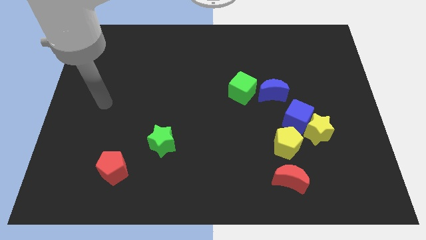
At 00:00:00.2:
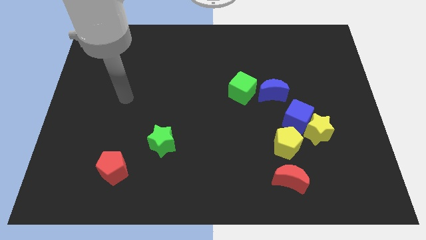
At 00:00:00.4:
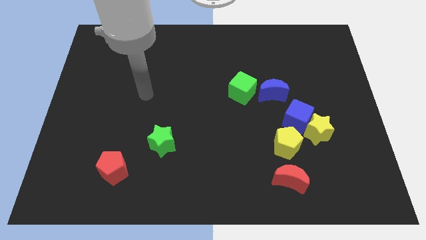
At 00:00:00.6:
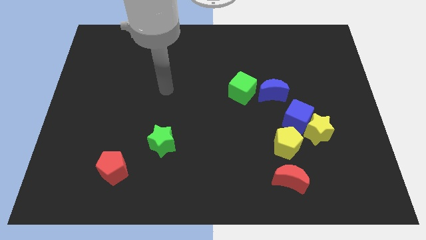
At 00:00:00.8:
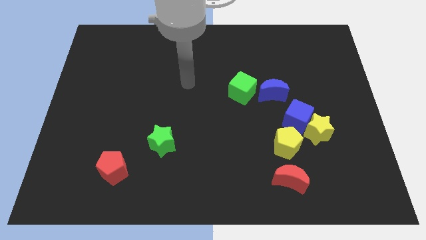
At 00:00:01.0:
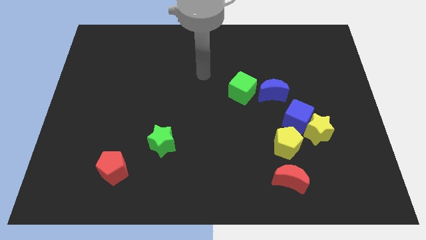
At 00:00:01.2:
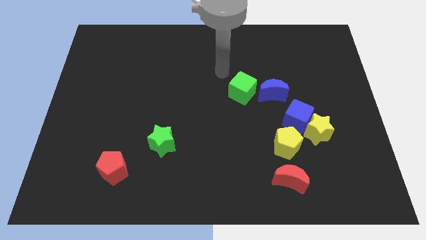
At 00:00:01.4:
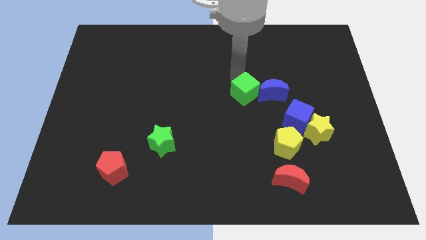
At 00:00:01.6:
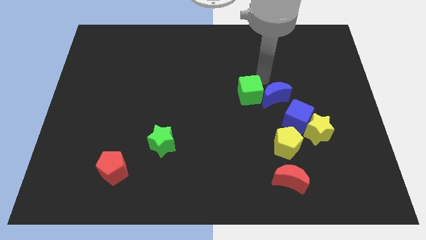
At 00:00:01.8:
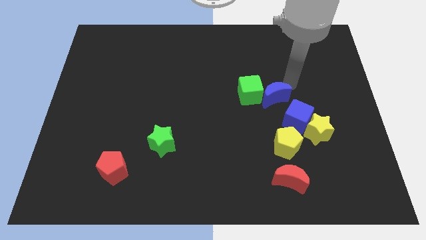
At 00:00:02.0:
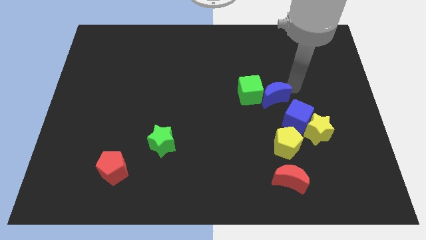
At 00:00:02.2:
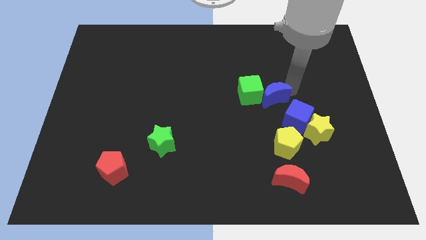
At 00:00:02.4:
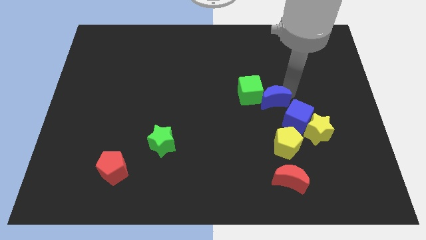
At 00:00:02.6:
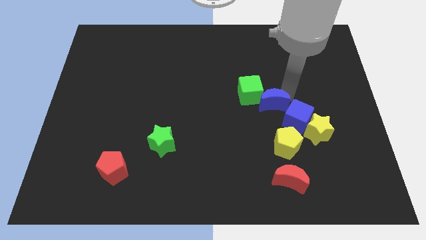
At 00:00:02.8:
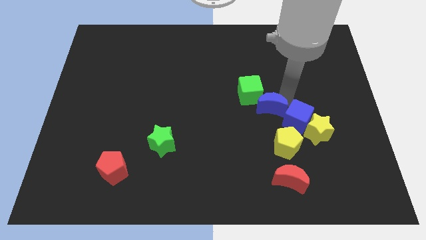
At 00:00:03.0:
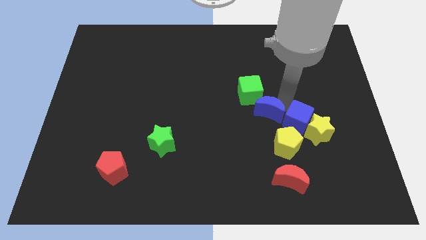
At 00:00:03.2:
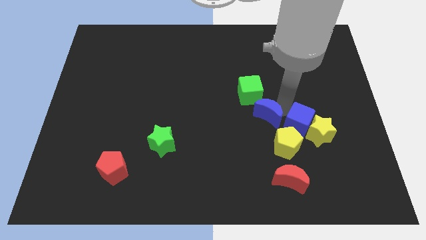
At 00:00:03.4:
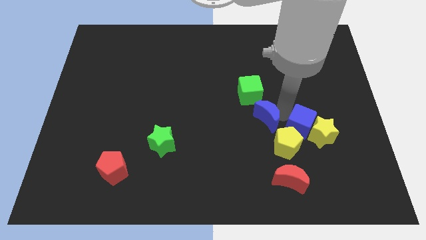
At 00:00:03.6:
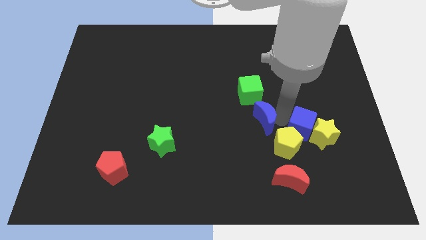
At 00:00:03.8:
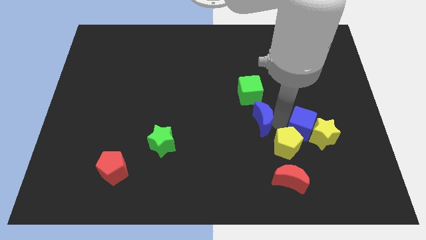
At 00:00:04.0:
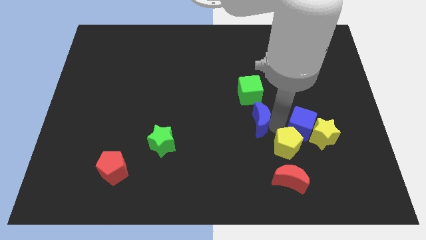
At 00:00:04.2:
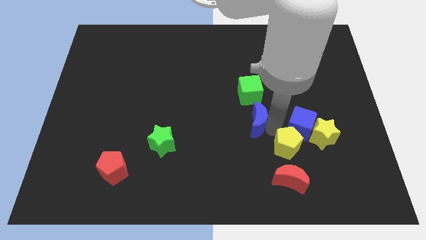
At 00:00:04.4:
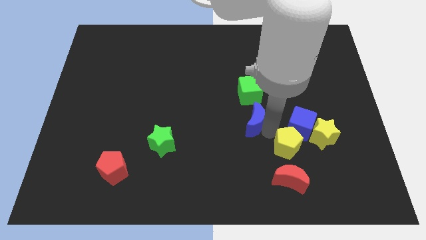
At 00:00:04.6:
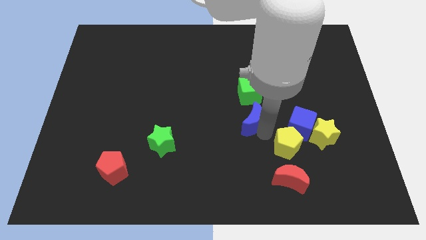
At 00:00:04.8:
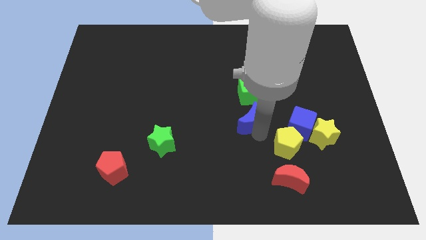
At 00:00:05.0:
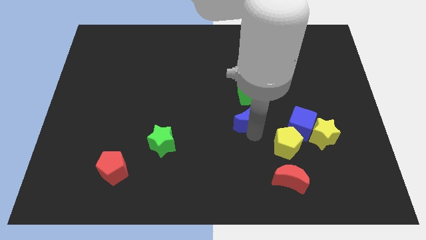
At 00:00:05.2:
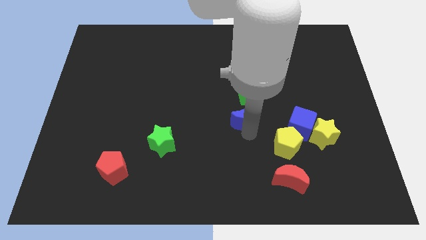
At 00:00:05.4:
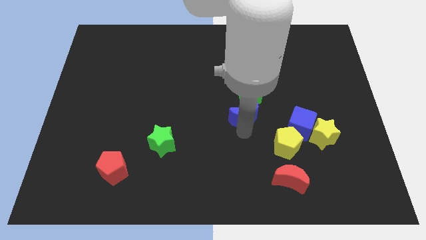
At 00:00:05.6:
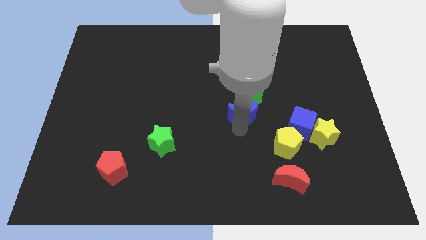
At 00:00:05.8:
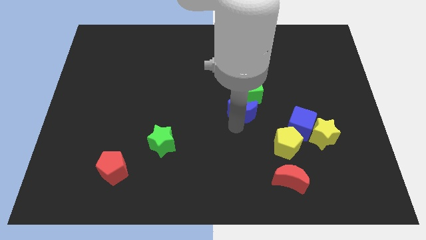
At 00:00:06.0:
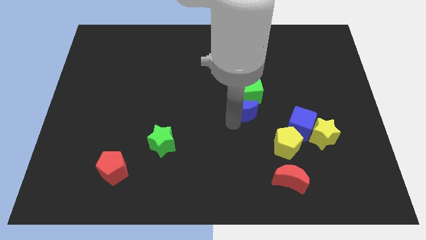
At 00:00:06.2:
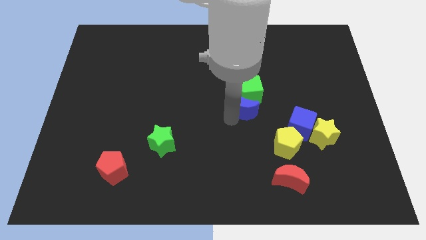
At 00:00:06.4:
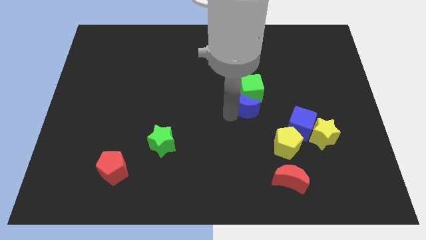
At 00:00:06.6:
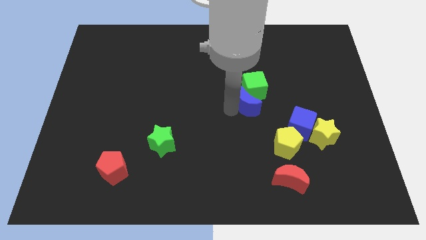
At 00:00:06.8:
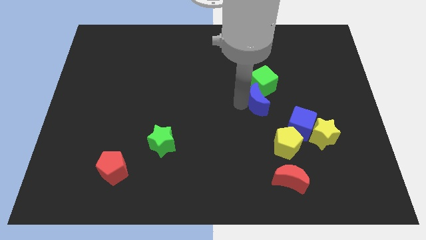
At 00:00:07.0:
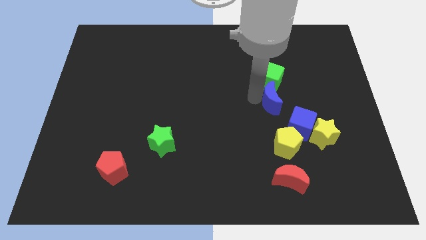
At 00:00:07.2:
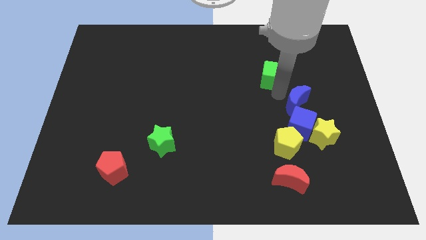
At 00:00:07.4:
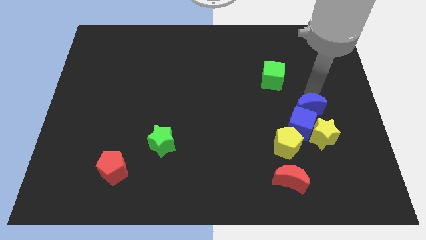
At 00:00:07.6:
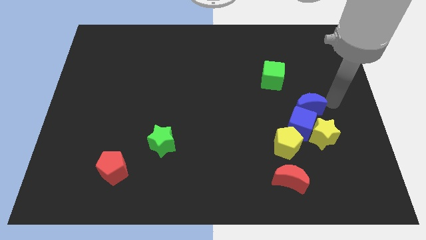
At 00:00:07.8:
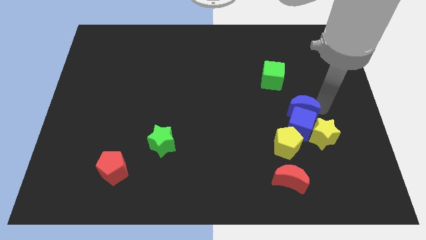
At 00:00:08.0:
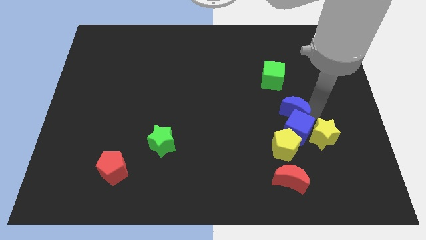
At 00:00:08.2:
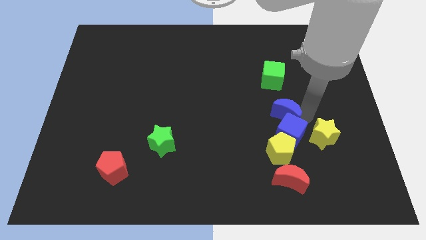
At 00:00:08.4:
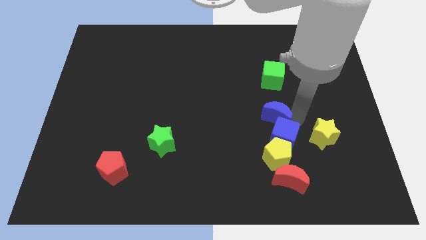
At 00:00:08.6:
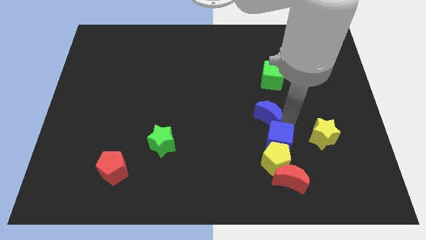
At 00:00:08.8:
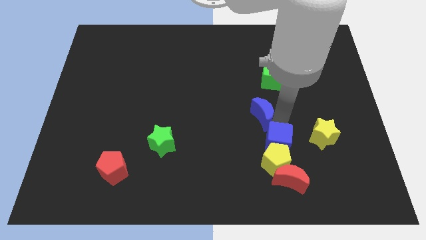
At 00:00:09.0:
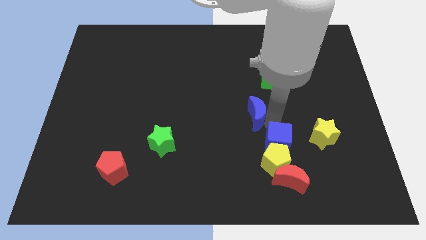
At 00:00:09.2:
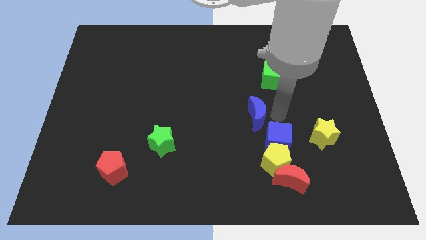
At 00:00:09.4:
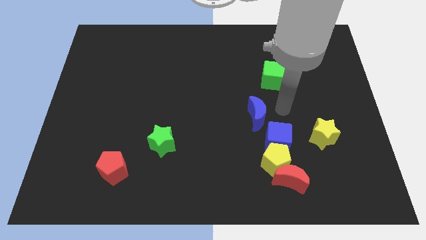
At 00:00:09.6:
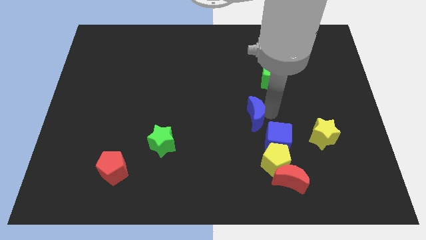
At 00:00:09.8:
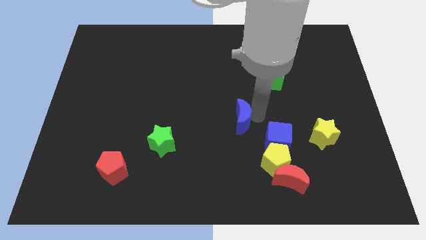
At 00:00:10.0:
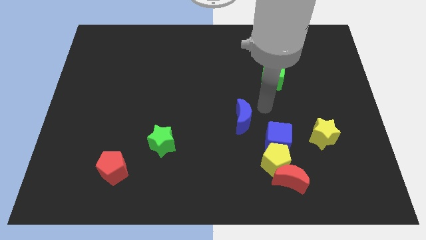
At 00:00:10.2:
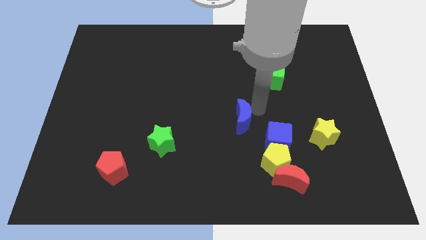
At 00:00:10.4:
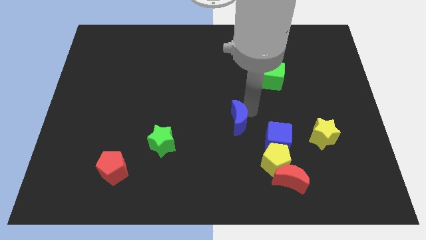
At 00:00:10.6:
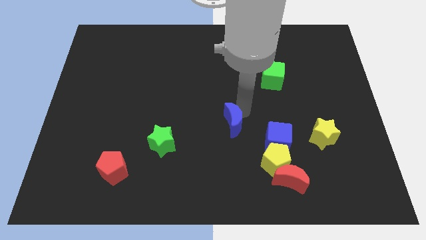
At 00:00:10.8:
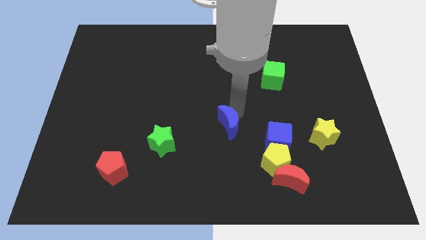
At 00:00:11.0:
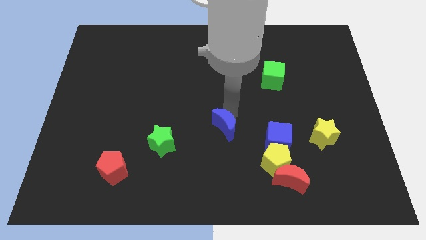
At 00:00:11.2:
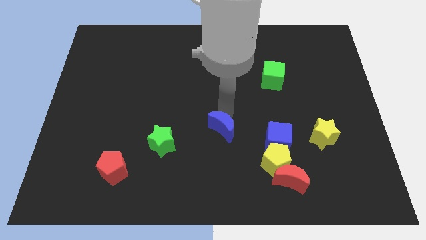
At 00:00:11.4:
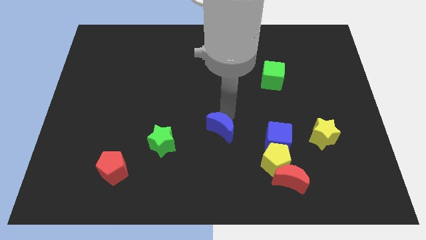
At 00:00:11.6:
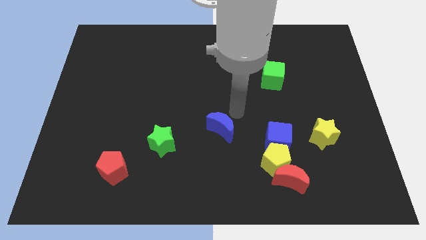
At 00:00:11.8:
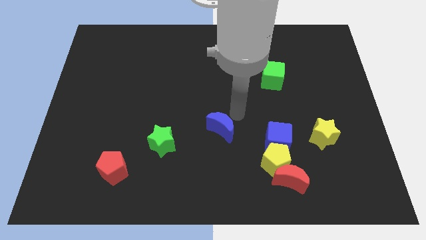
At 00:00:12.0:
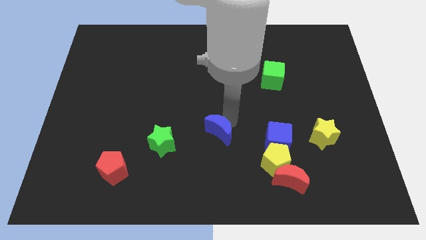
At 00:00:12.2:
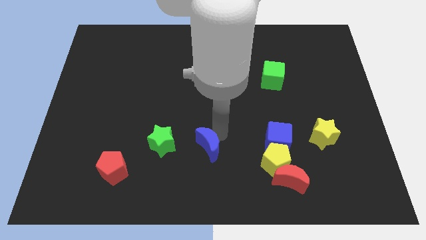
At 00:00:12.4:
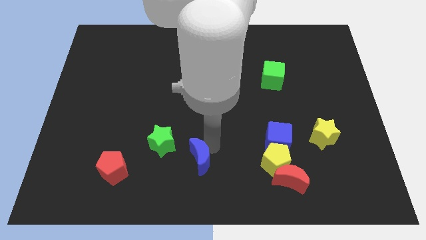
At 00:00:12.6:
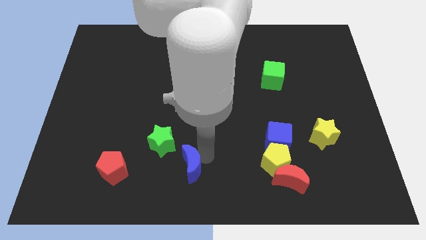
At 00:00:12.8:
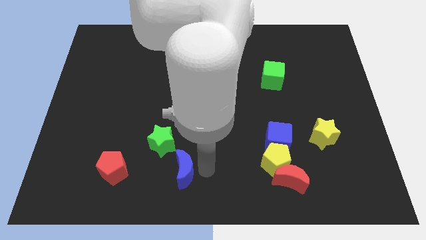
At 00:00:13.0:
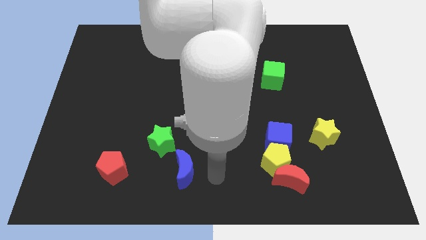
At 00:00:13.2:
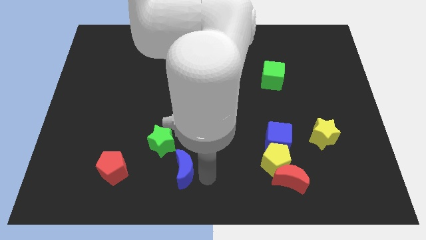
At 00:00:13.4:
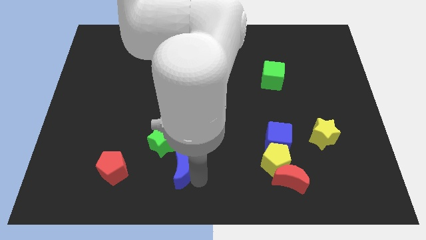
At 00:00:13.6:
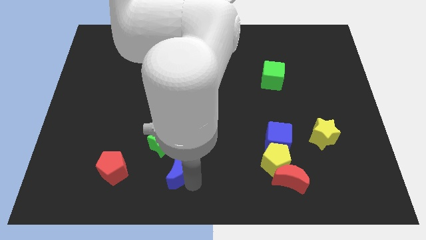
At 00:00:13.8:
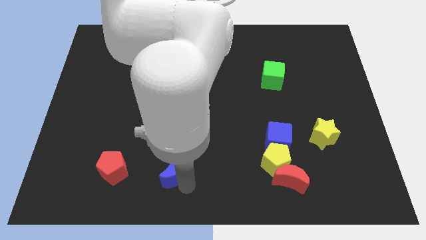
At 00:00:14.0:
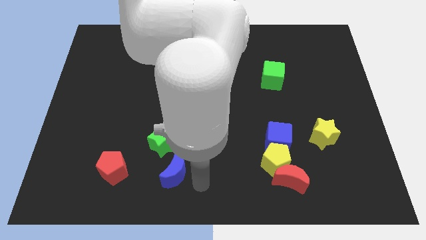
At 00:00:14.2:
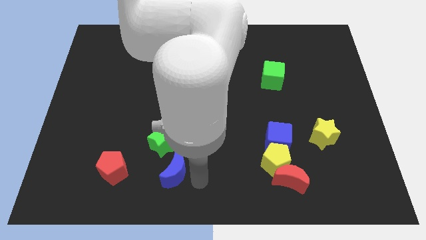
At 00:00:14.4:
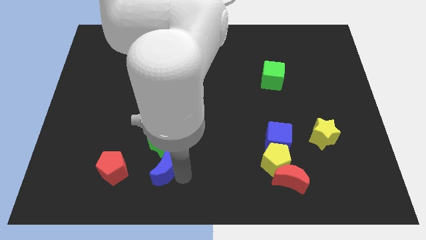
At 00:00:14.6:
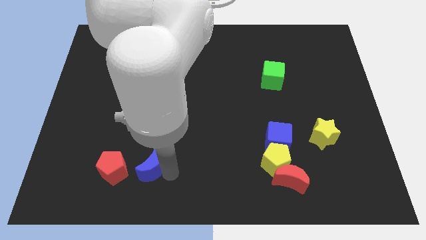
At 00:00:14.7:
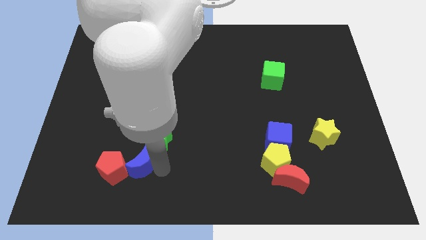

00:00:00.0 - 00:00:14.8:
put the blue moon towards the red pentagon
